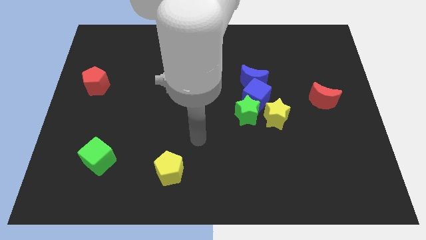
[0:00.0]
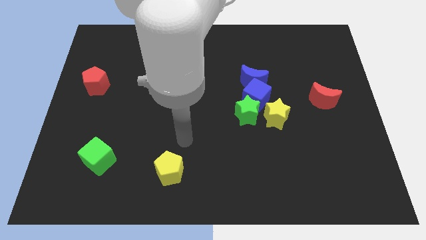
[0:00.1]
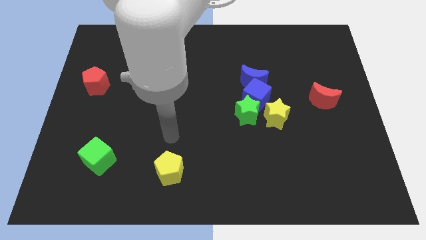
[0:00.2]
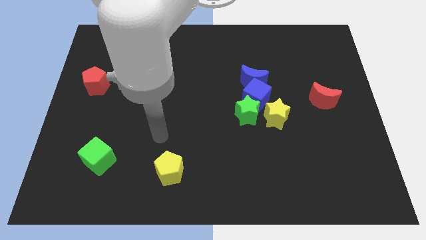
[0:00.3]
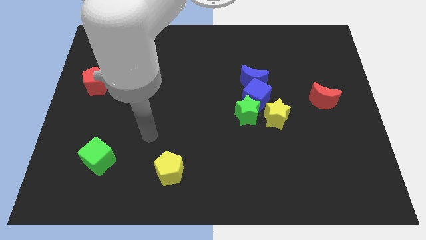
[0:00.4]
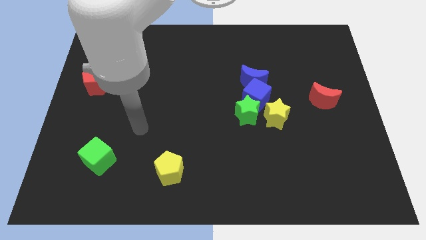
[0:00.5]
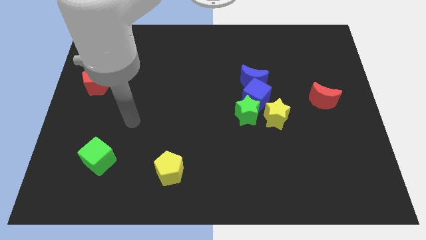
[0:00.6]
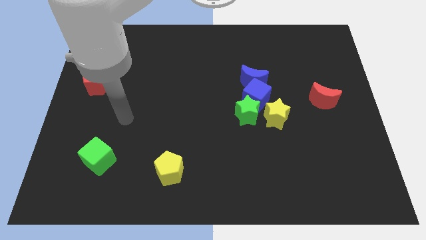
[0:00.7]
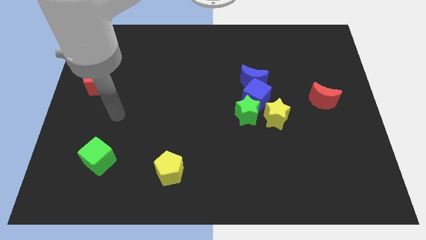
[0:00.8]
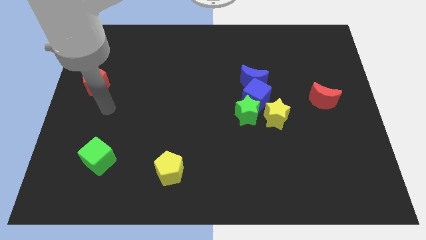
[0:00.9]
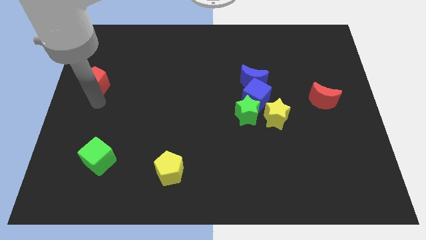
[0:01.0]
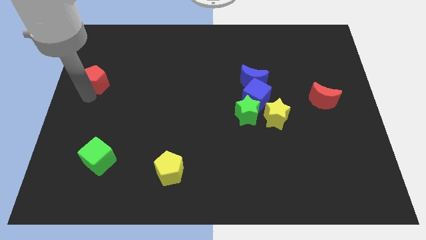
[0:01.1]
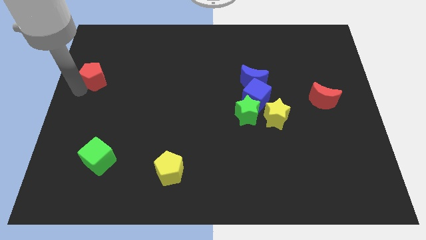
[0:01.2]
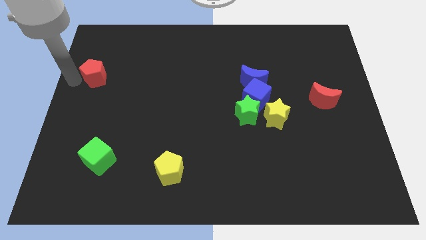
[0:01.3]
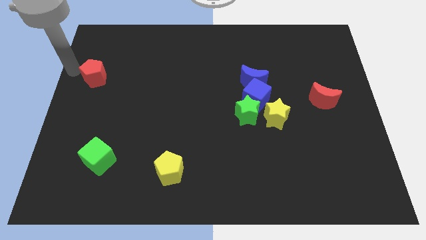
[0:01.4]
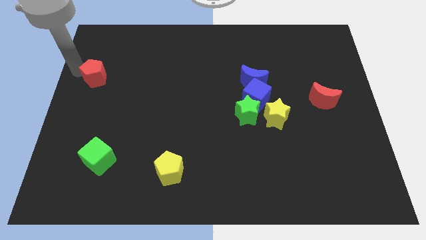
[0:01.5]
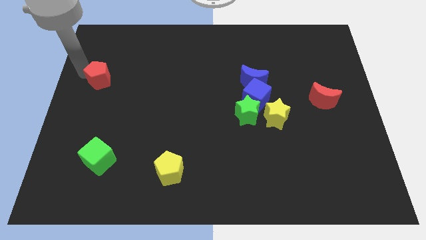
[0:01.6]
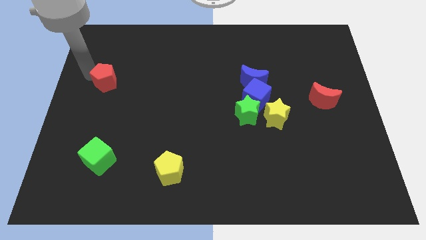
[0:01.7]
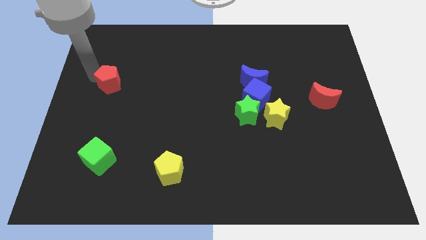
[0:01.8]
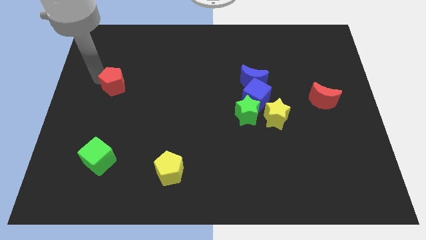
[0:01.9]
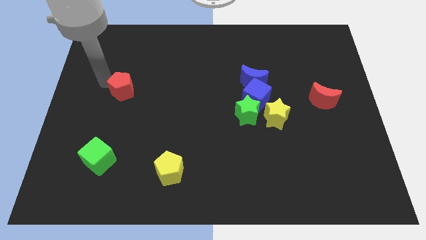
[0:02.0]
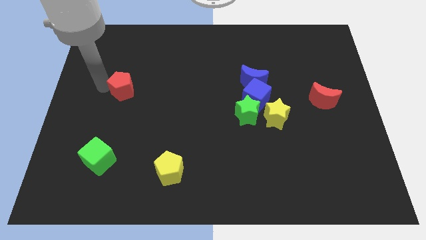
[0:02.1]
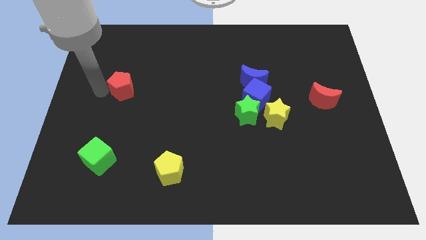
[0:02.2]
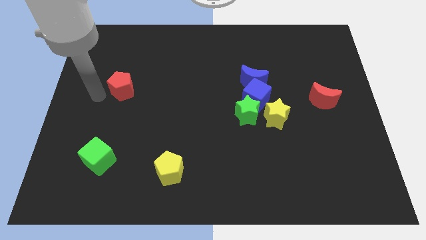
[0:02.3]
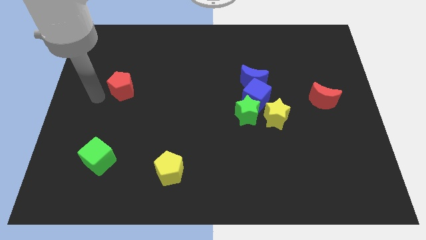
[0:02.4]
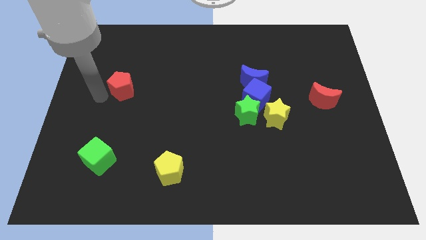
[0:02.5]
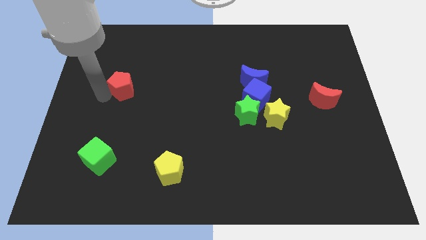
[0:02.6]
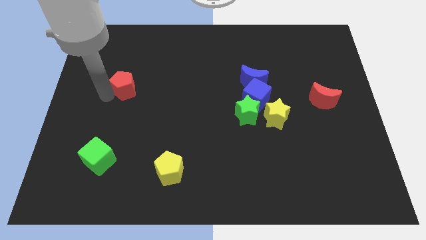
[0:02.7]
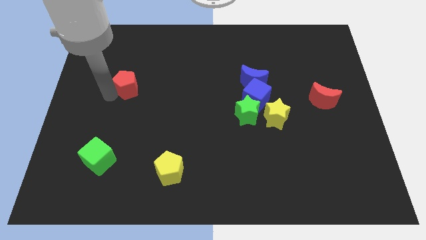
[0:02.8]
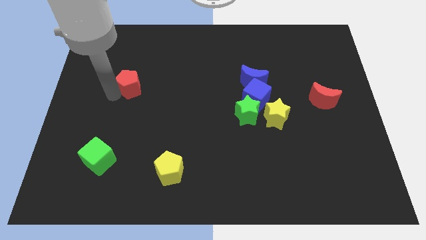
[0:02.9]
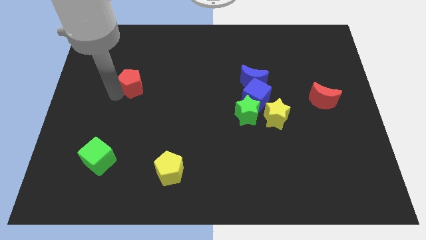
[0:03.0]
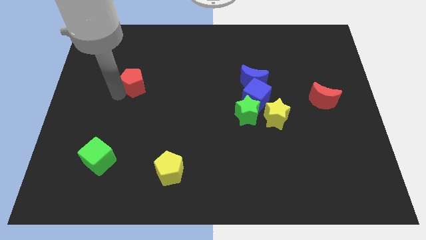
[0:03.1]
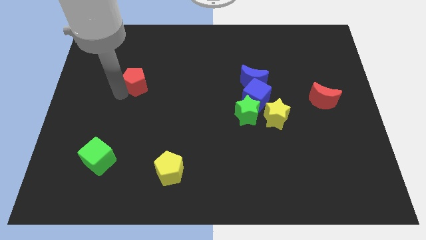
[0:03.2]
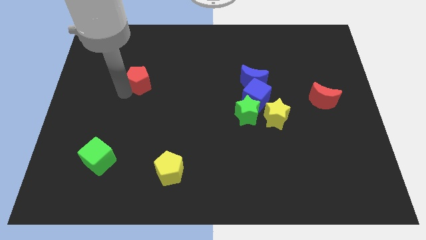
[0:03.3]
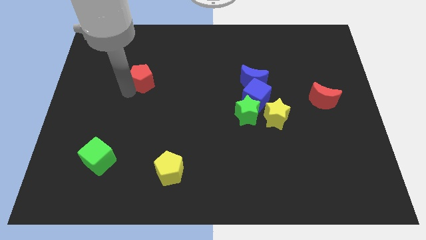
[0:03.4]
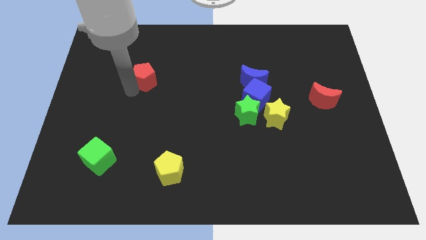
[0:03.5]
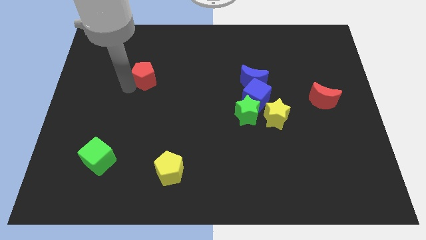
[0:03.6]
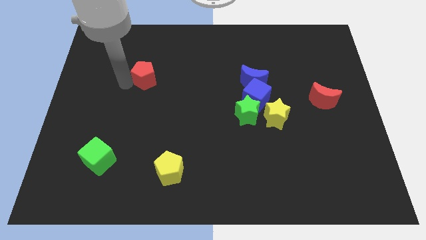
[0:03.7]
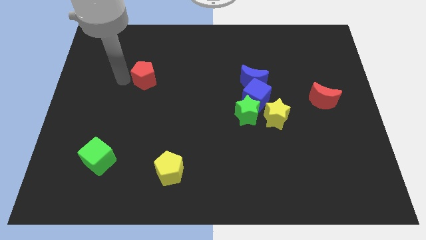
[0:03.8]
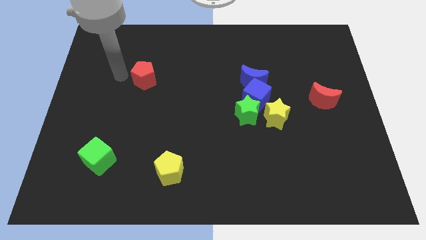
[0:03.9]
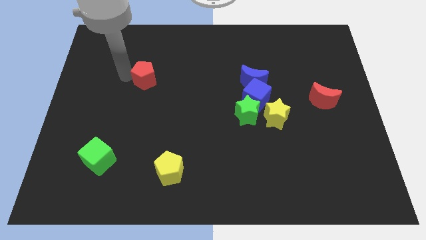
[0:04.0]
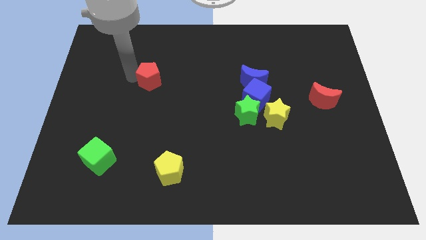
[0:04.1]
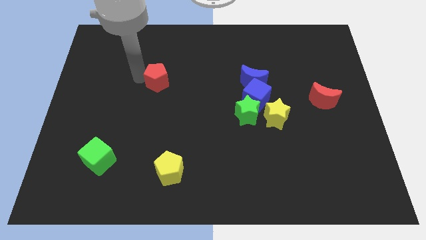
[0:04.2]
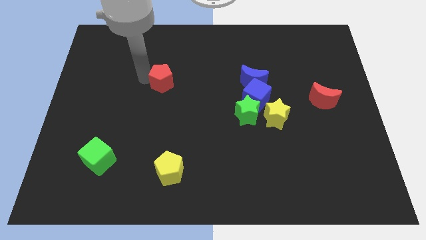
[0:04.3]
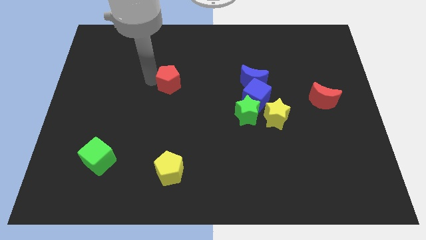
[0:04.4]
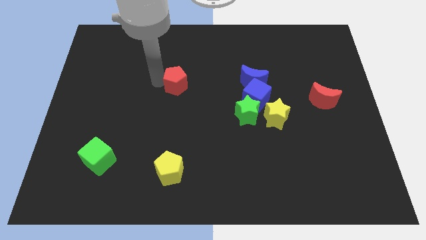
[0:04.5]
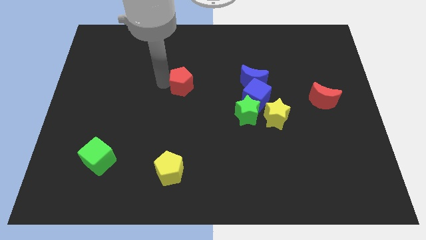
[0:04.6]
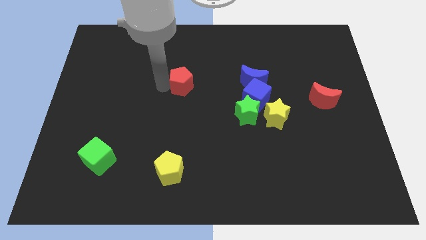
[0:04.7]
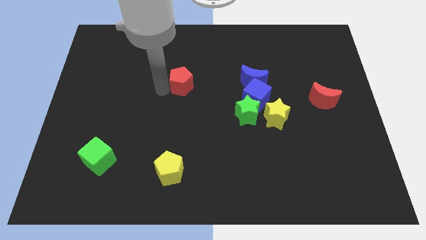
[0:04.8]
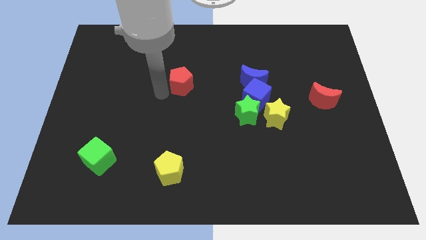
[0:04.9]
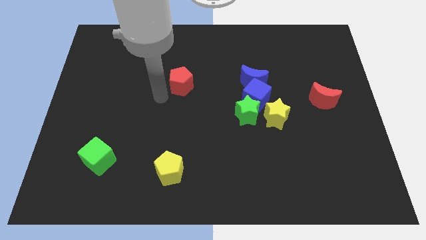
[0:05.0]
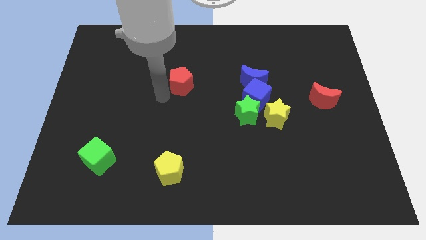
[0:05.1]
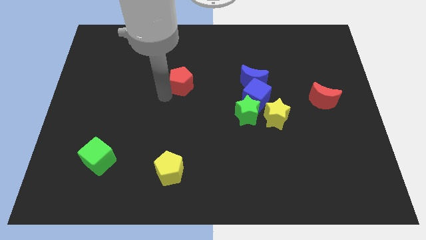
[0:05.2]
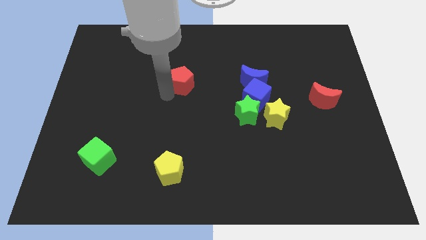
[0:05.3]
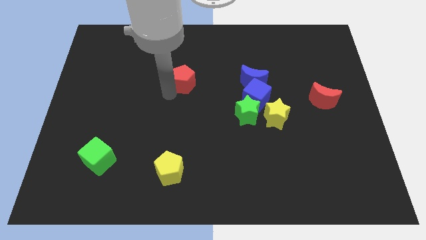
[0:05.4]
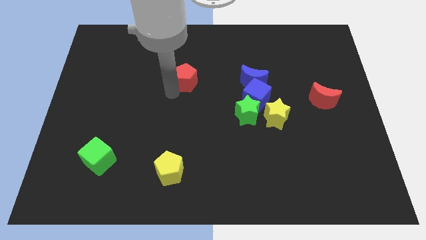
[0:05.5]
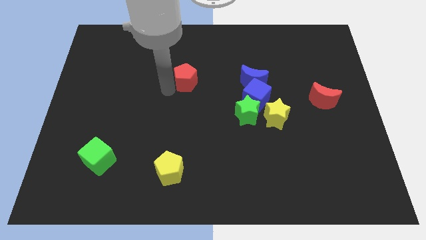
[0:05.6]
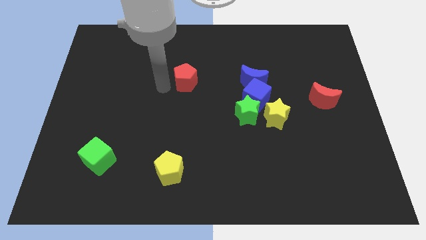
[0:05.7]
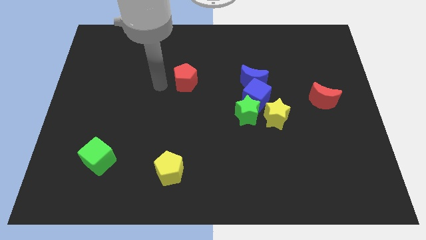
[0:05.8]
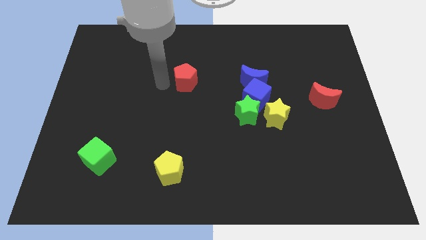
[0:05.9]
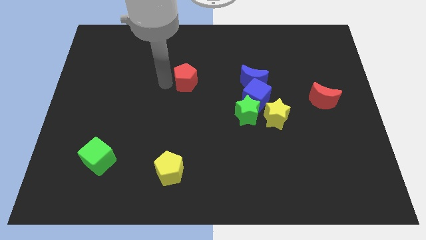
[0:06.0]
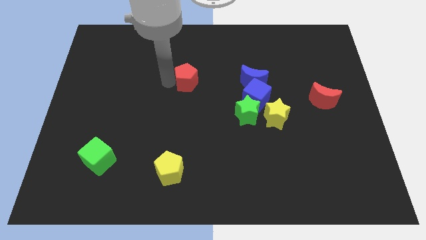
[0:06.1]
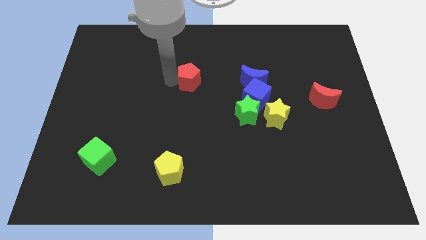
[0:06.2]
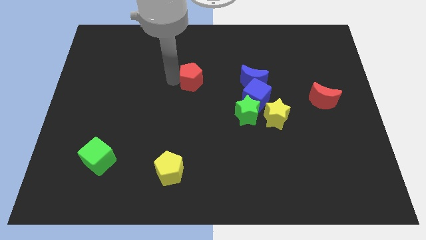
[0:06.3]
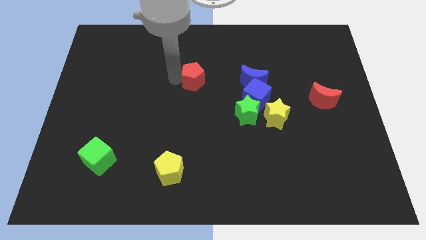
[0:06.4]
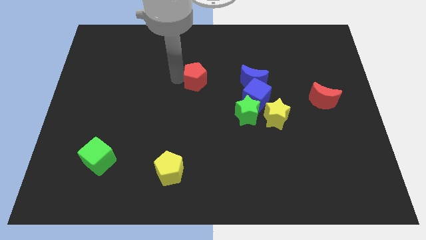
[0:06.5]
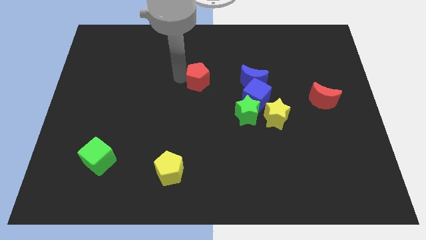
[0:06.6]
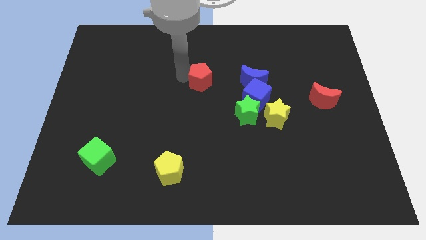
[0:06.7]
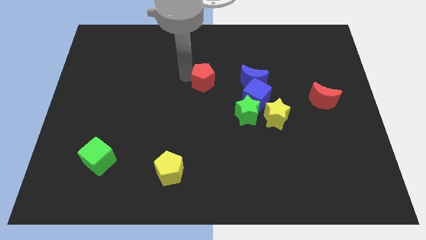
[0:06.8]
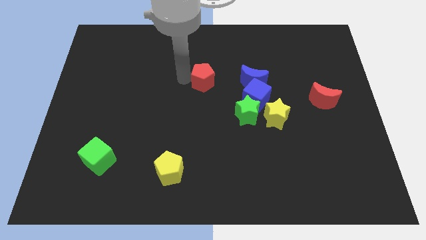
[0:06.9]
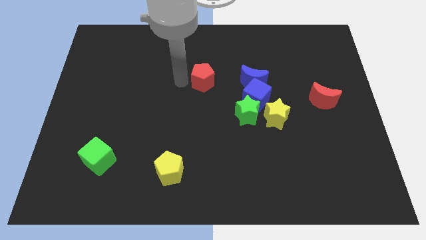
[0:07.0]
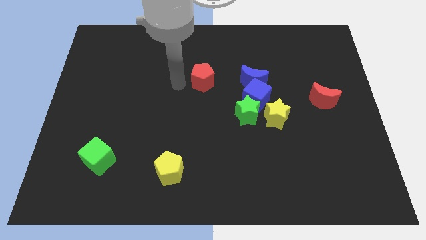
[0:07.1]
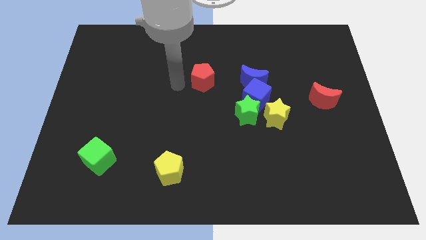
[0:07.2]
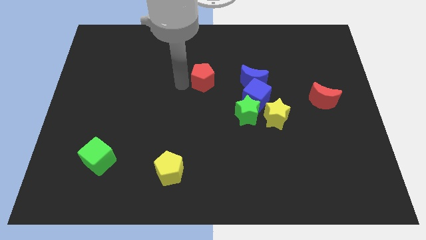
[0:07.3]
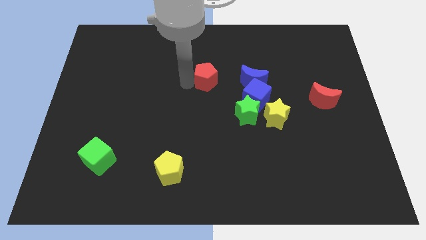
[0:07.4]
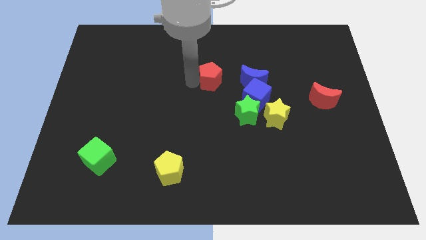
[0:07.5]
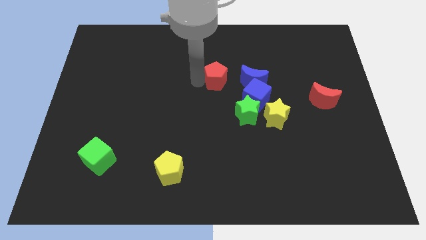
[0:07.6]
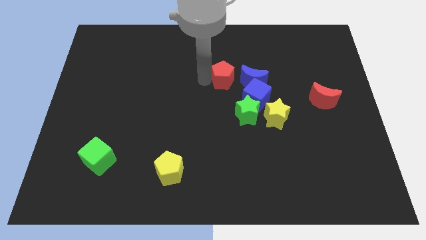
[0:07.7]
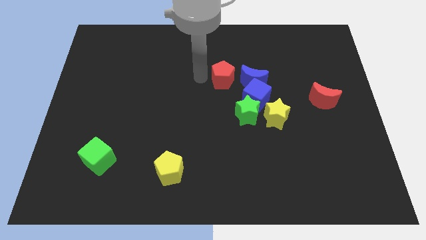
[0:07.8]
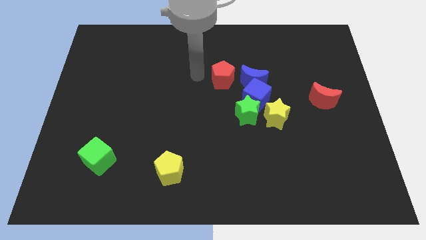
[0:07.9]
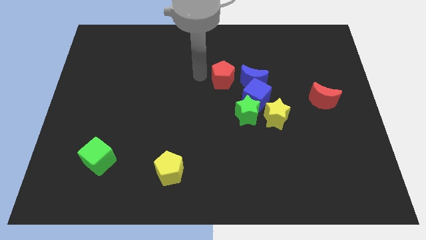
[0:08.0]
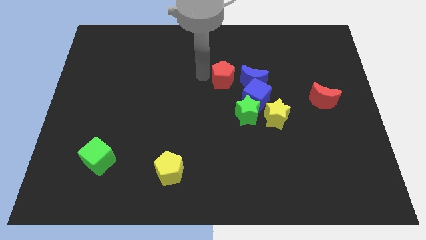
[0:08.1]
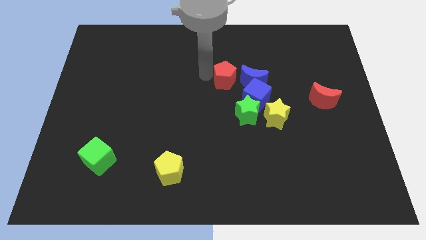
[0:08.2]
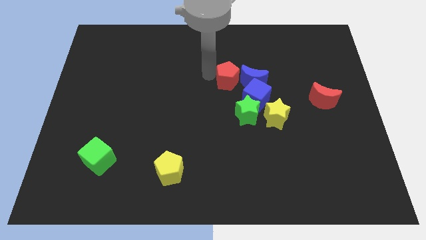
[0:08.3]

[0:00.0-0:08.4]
push the red pentagon to the top of the green star
